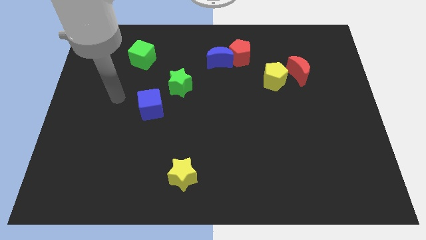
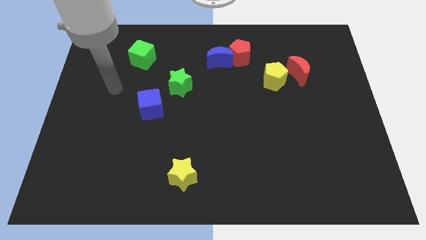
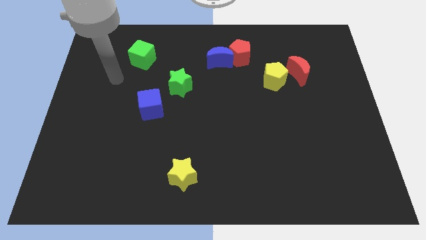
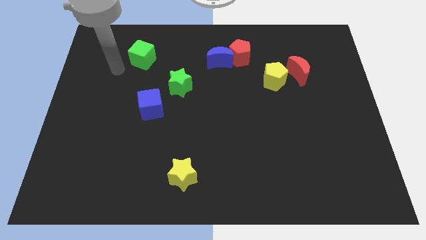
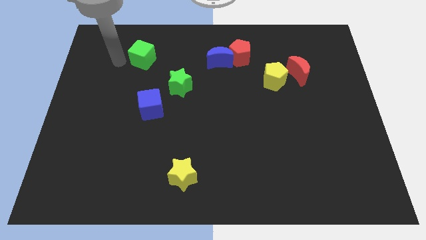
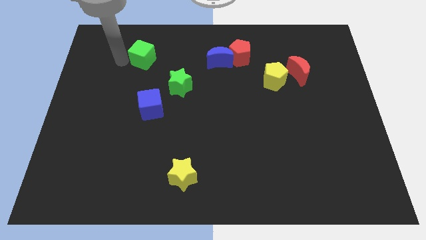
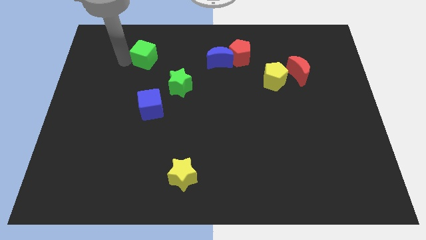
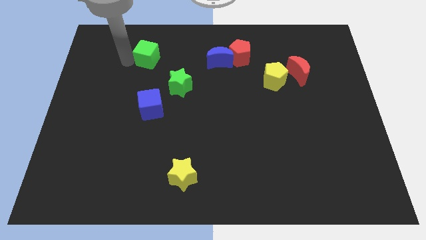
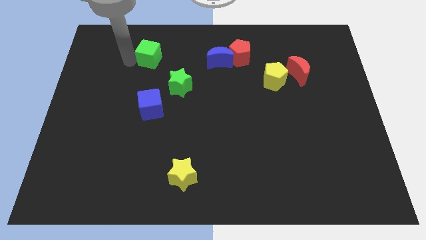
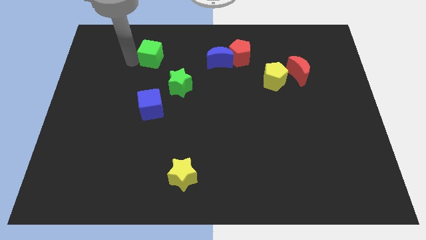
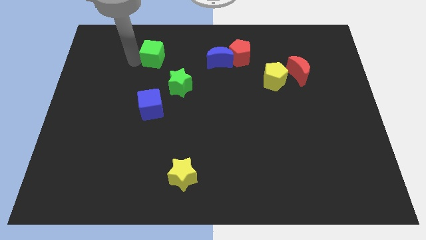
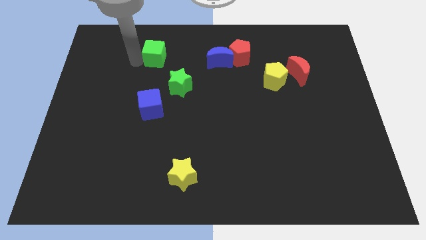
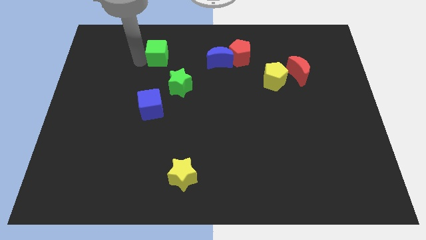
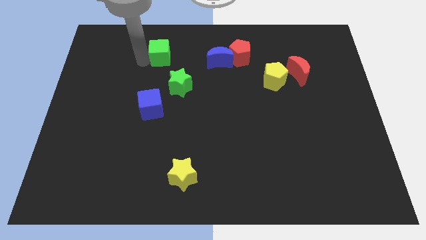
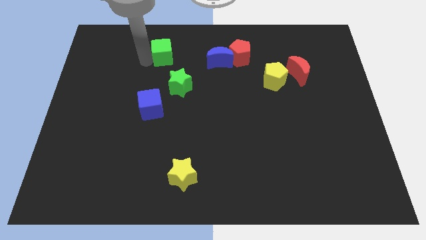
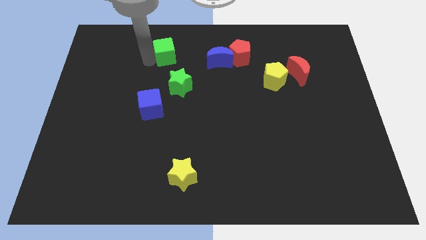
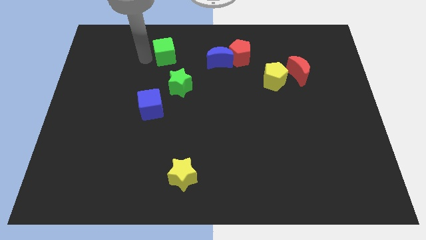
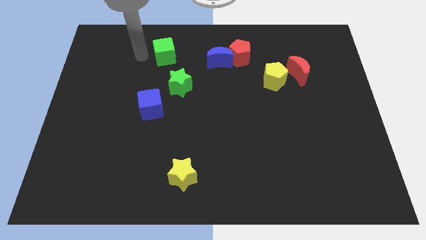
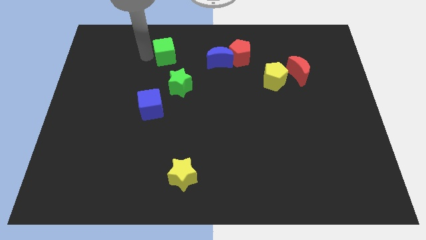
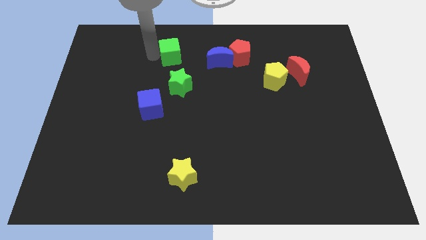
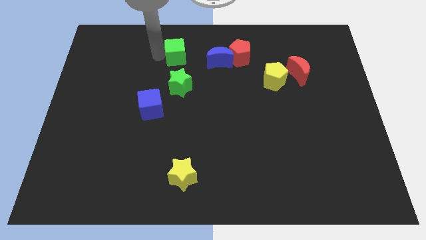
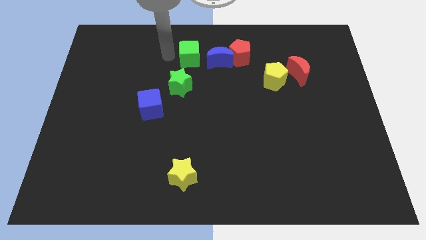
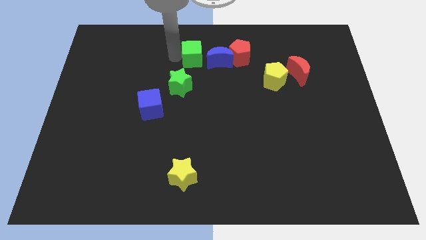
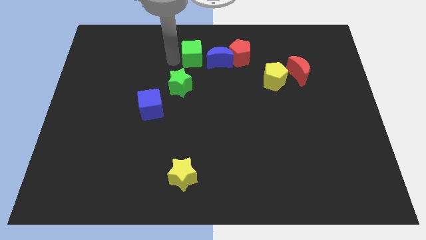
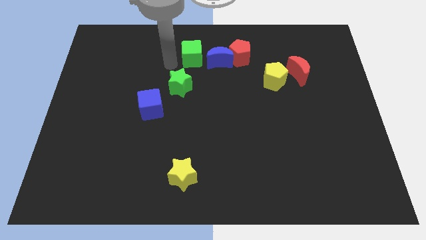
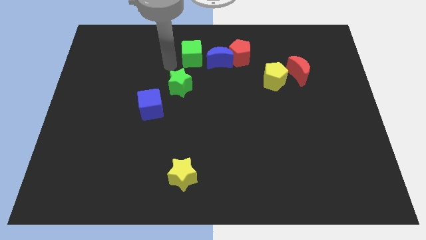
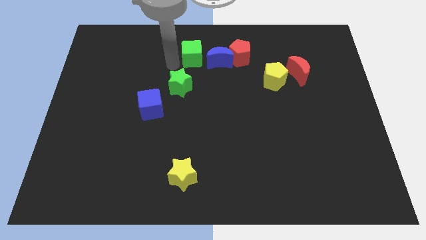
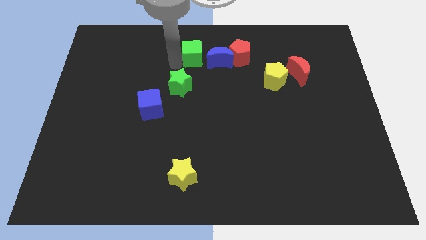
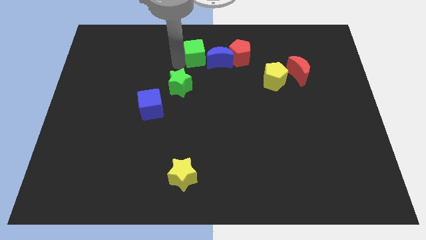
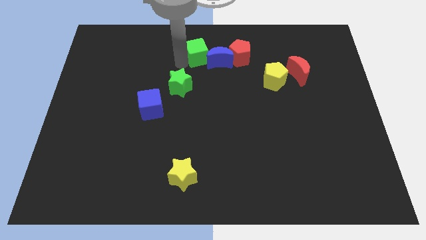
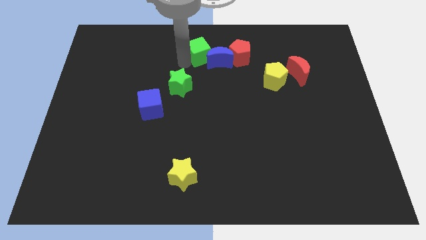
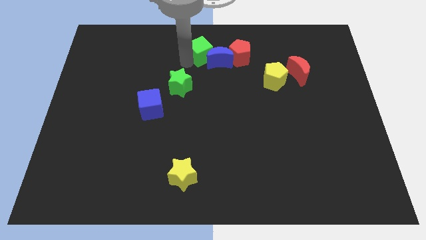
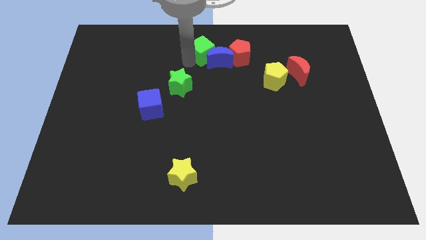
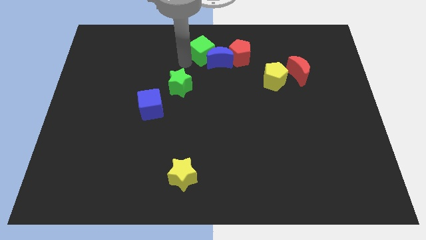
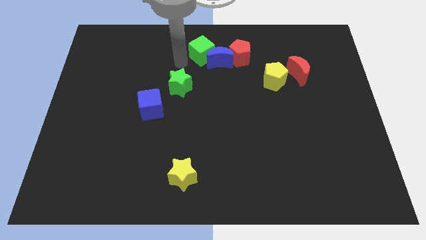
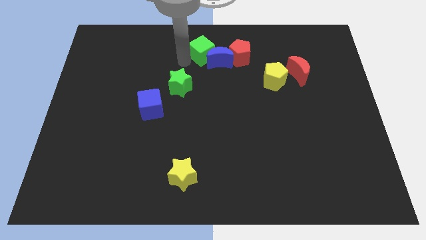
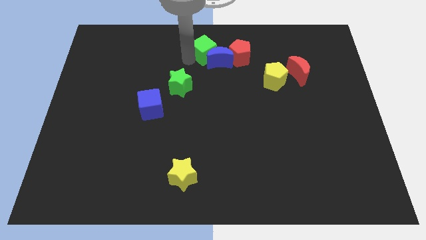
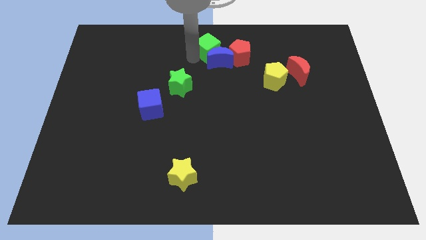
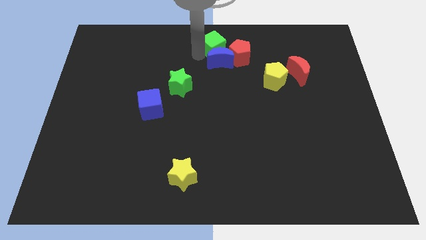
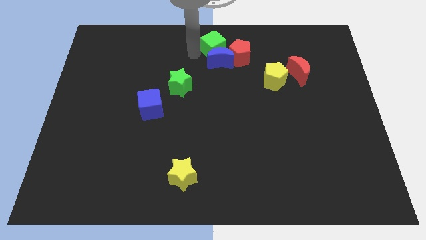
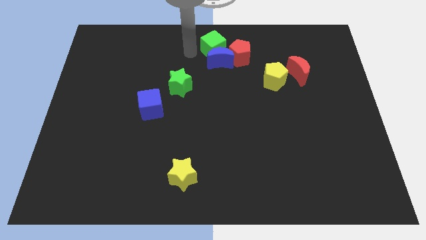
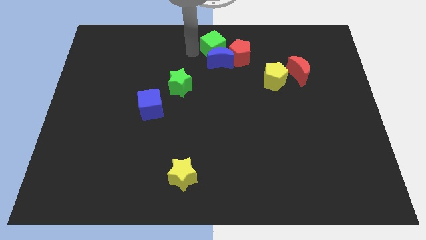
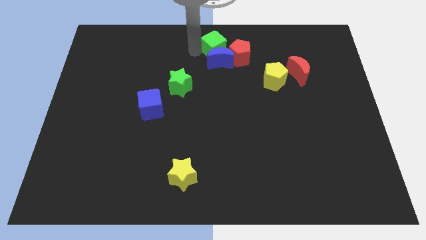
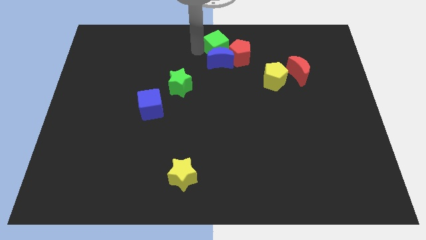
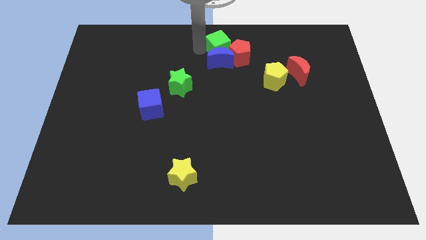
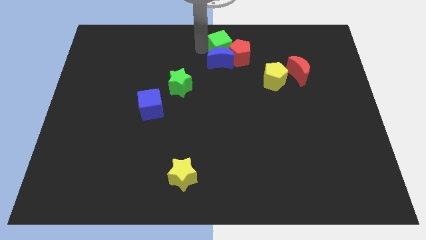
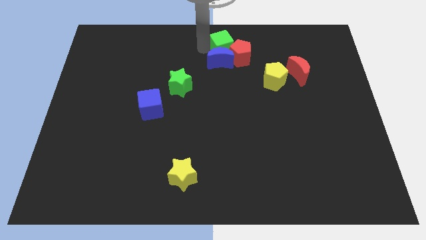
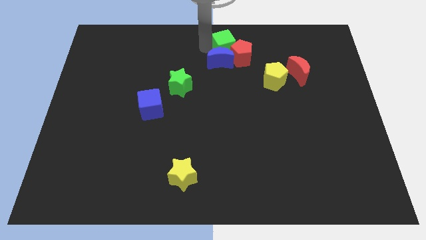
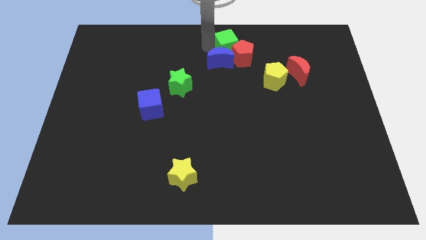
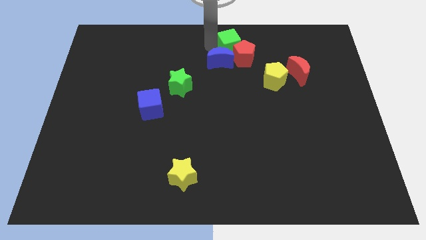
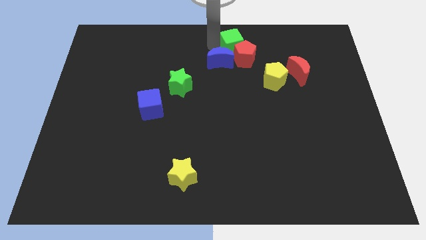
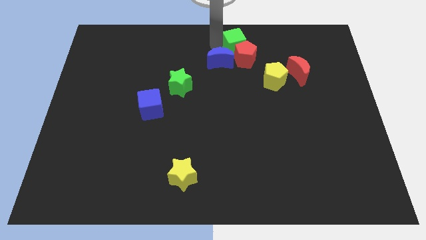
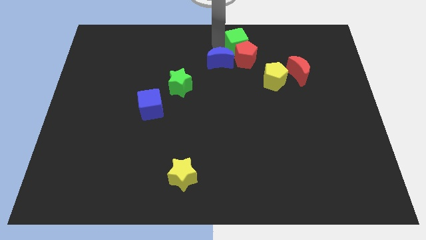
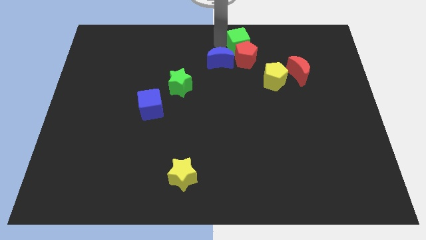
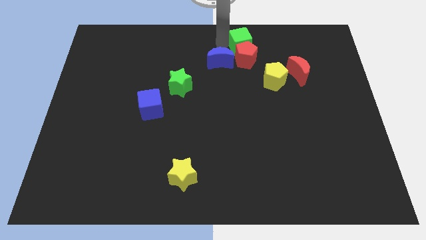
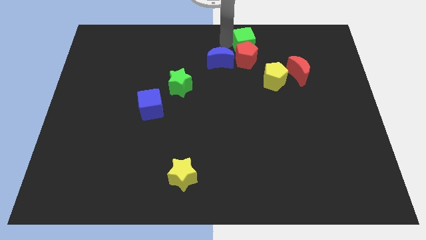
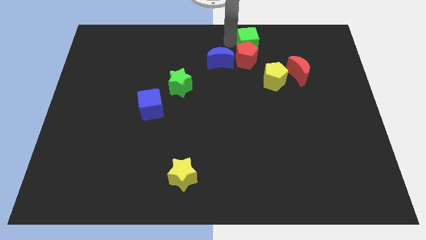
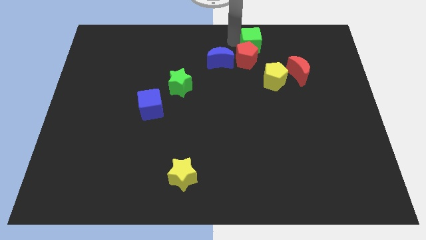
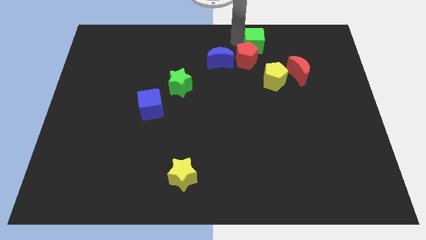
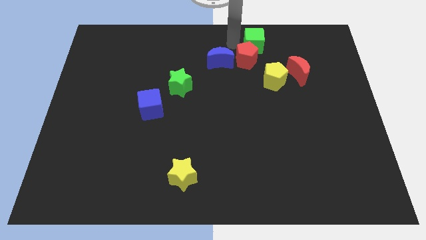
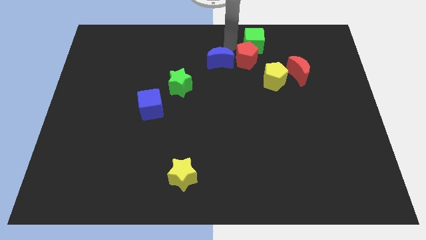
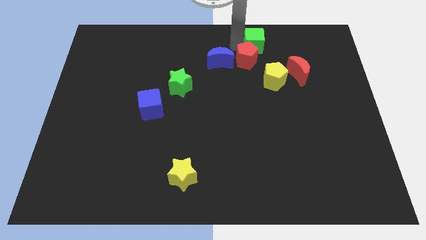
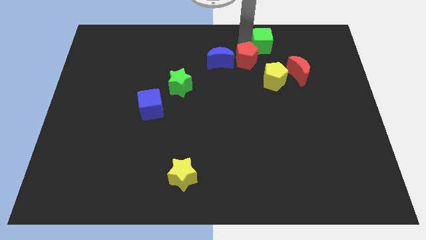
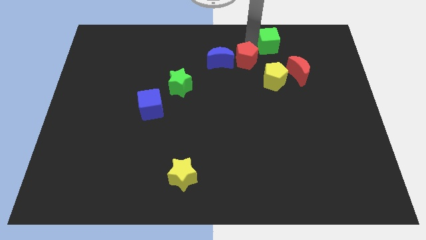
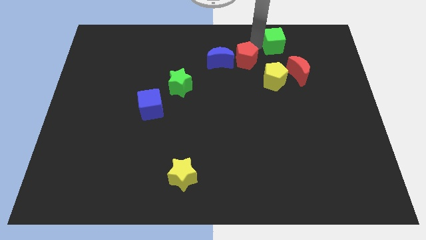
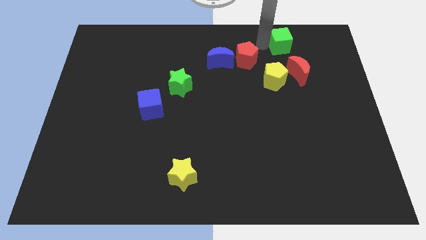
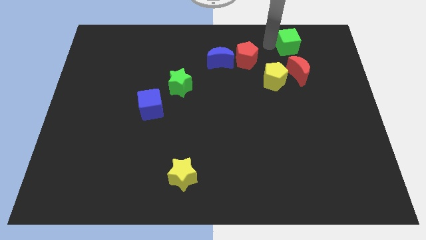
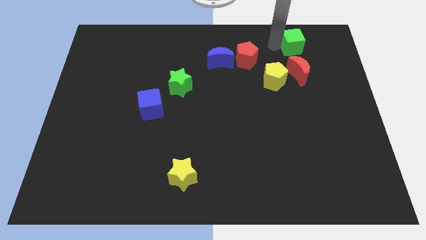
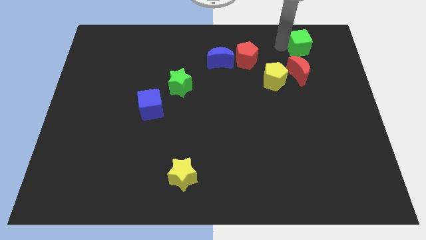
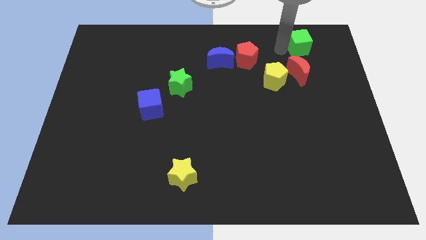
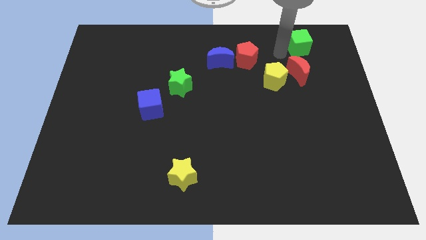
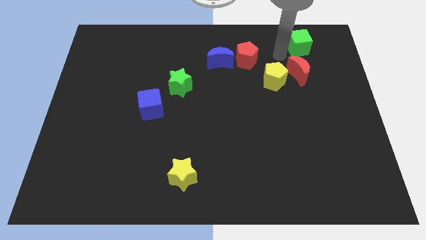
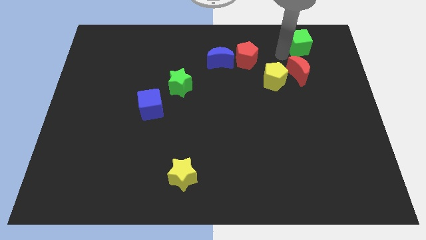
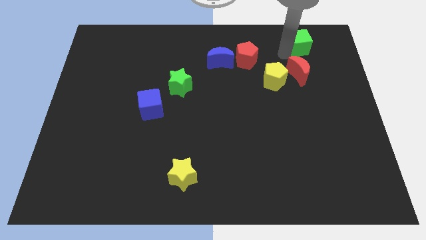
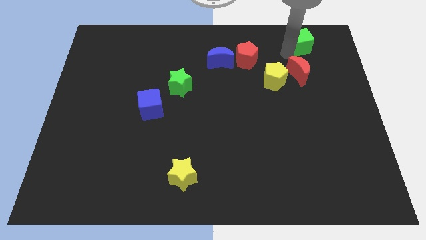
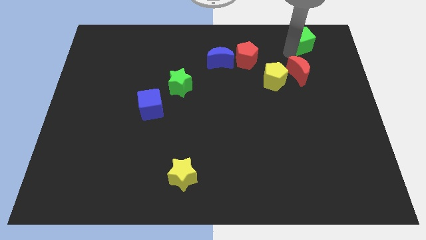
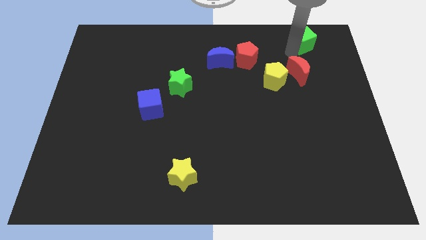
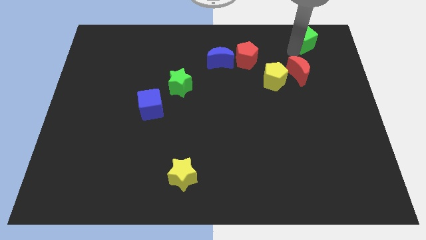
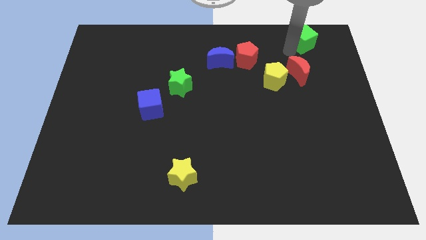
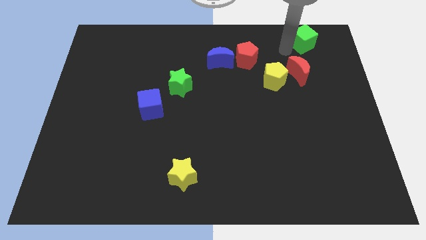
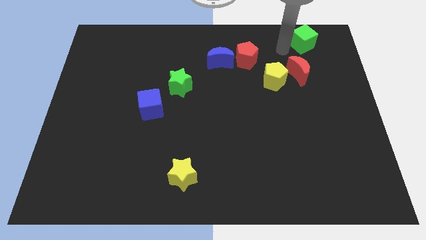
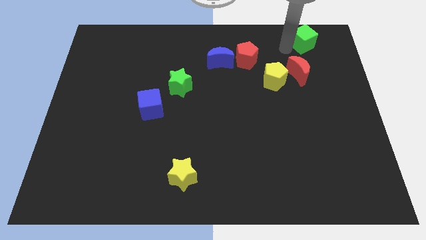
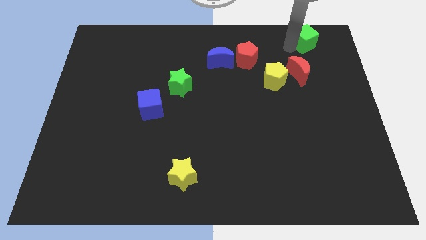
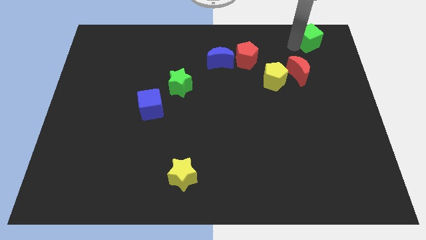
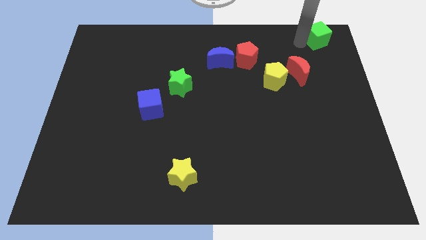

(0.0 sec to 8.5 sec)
move the green cube to the top right of the board
